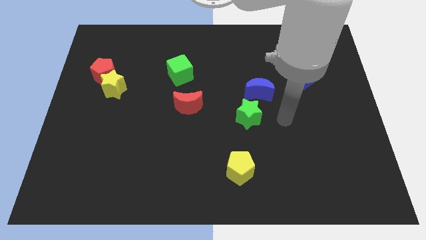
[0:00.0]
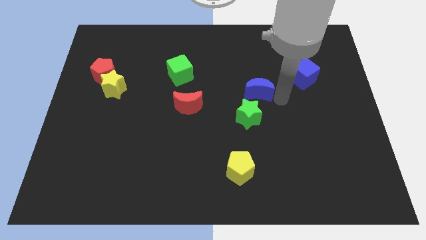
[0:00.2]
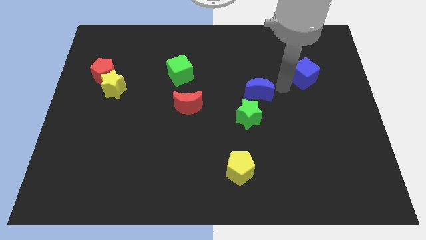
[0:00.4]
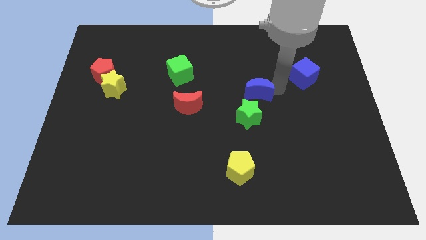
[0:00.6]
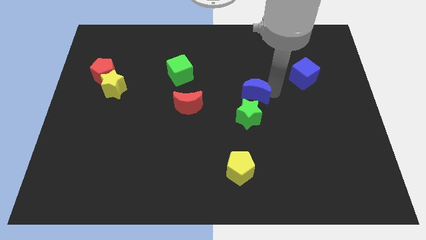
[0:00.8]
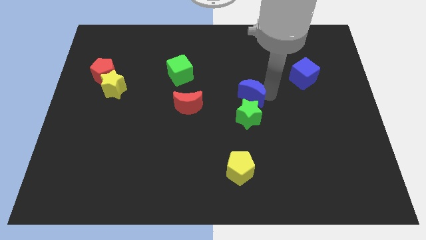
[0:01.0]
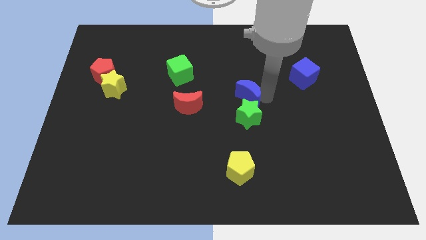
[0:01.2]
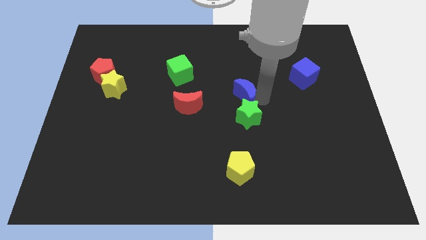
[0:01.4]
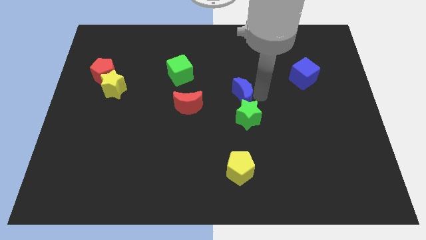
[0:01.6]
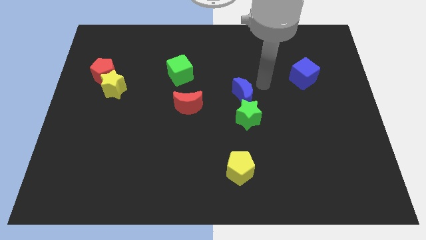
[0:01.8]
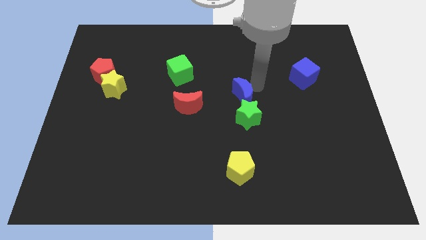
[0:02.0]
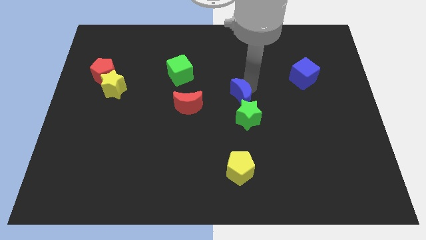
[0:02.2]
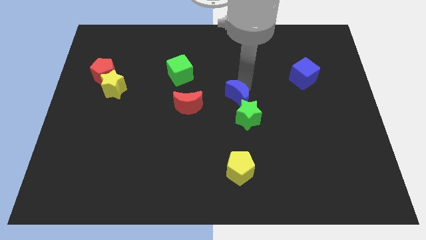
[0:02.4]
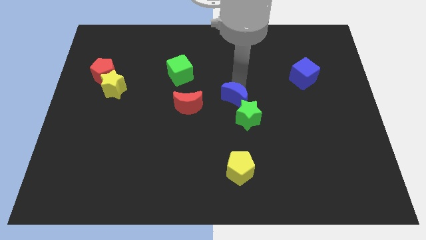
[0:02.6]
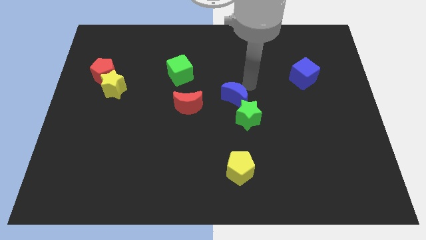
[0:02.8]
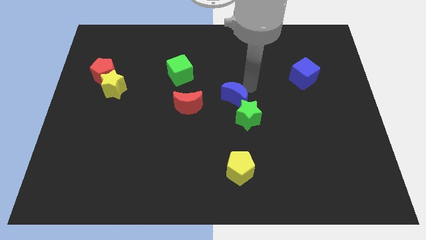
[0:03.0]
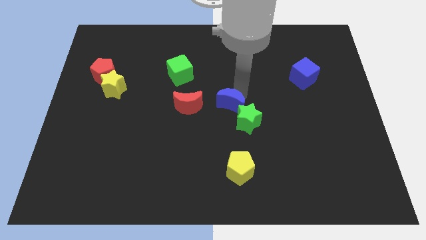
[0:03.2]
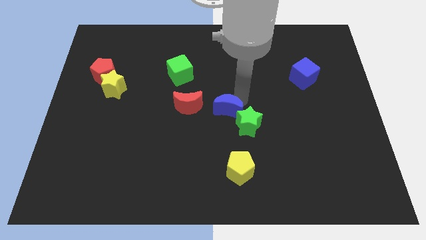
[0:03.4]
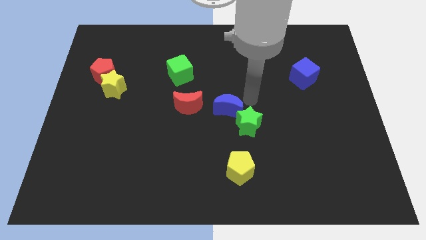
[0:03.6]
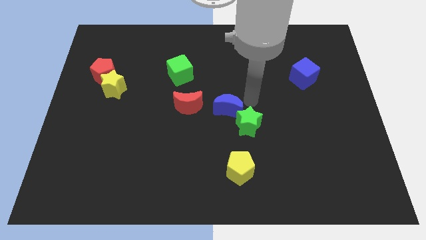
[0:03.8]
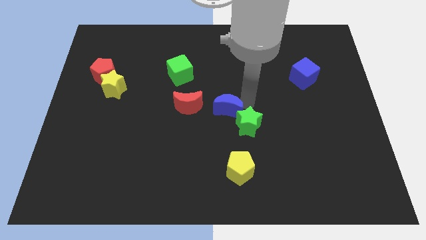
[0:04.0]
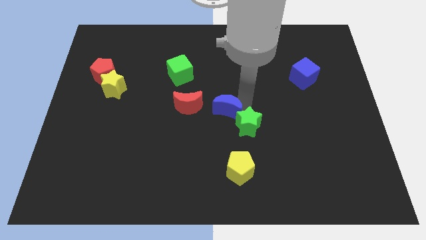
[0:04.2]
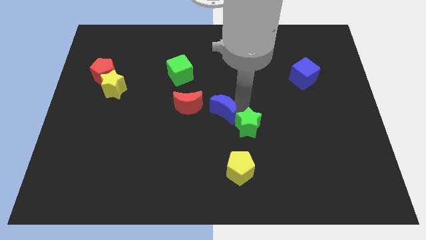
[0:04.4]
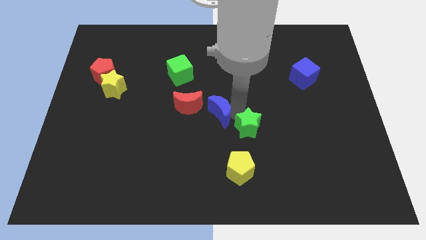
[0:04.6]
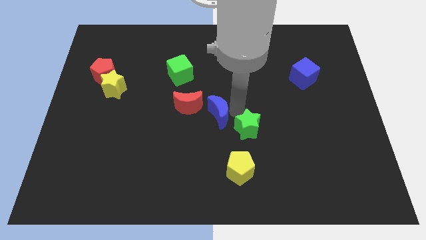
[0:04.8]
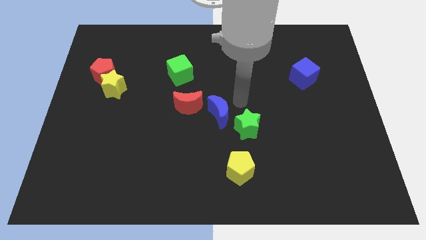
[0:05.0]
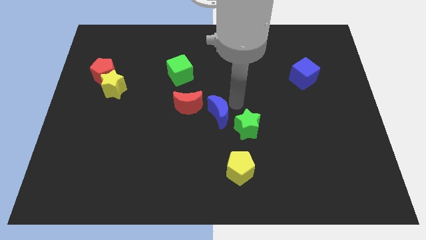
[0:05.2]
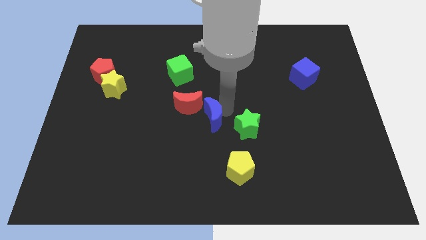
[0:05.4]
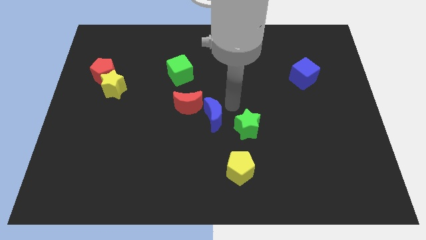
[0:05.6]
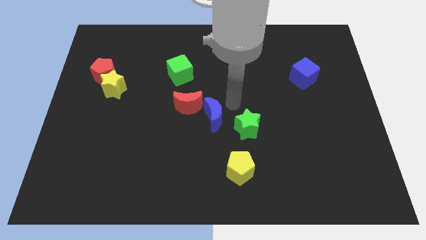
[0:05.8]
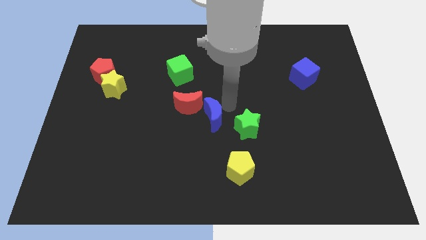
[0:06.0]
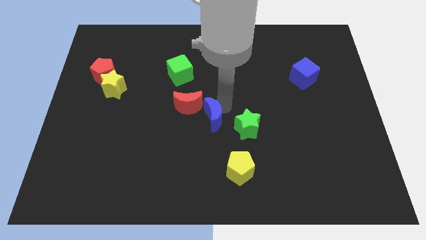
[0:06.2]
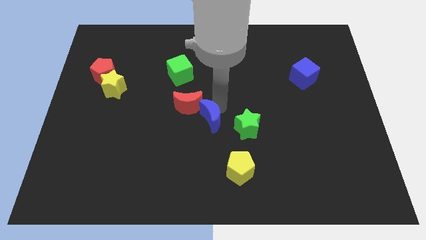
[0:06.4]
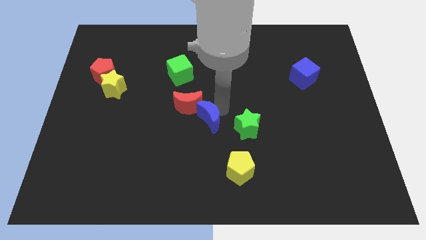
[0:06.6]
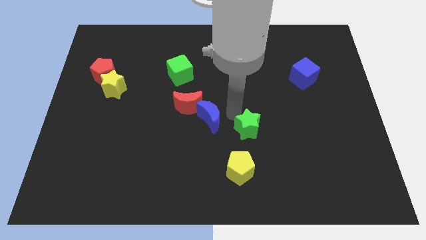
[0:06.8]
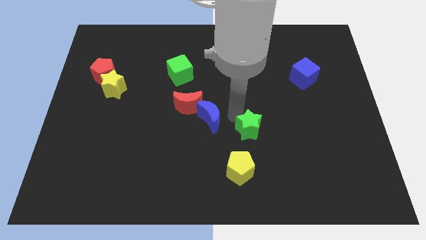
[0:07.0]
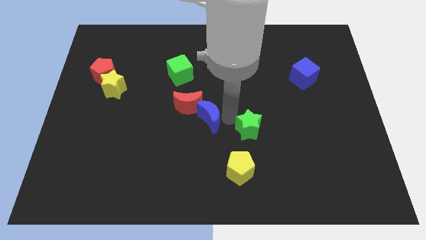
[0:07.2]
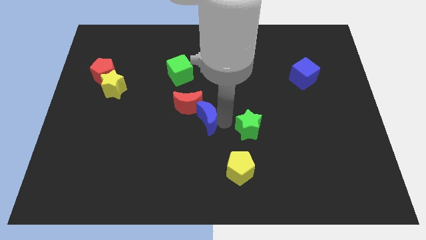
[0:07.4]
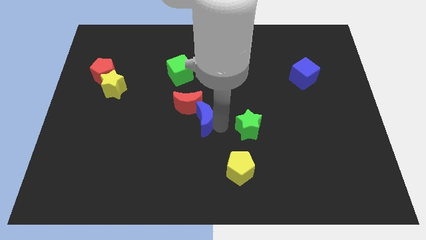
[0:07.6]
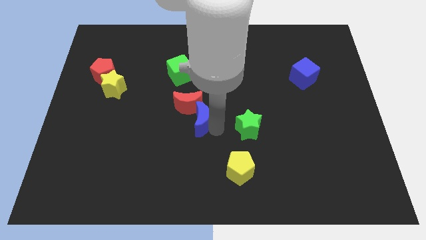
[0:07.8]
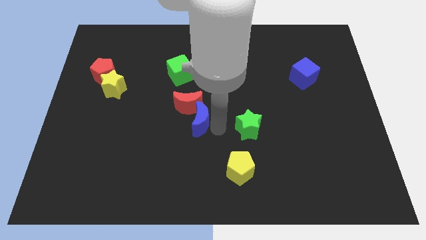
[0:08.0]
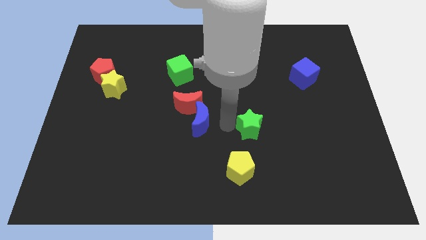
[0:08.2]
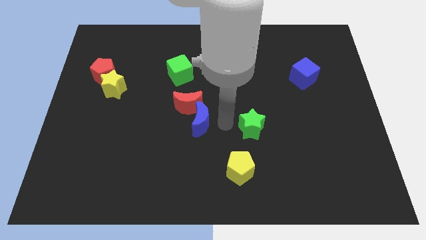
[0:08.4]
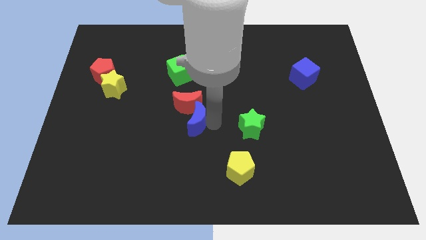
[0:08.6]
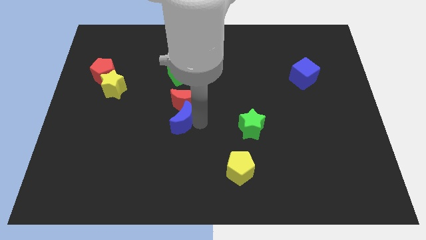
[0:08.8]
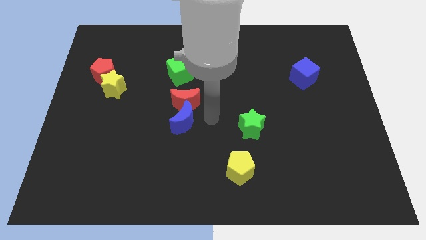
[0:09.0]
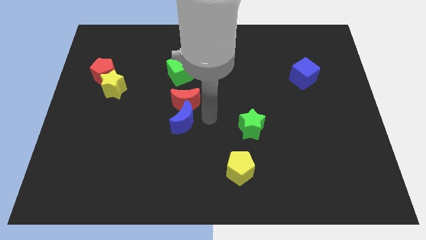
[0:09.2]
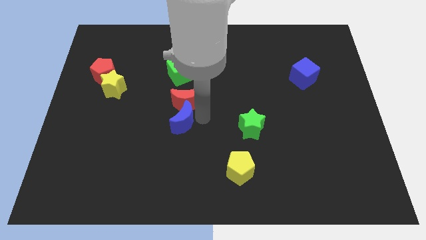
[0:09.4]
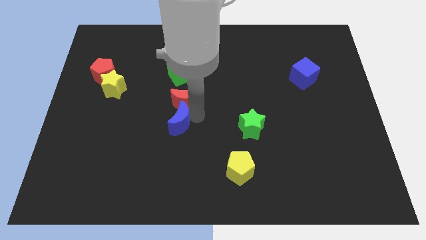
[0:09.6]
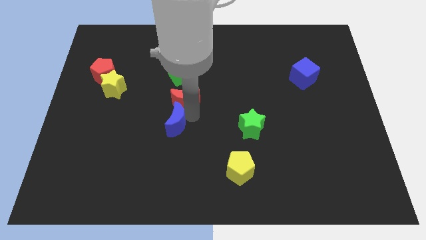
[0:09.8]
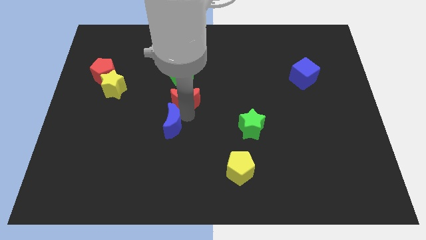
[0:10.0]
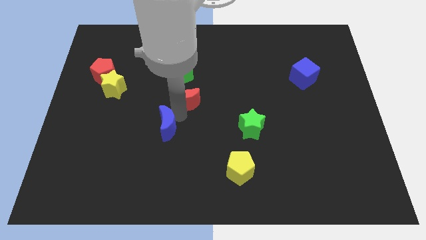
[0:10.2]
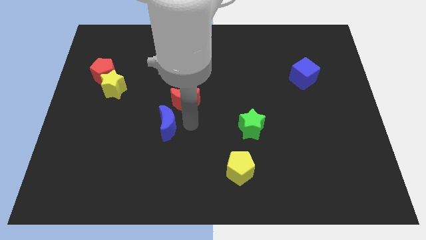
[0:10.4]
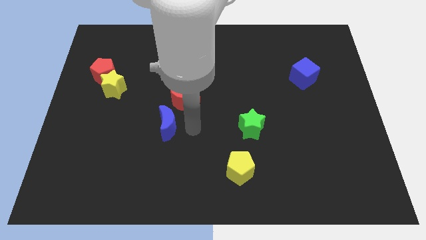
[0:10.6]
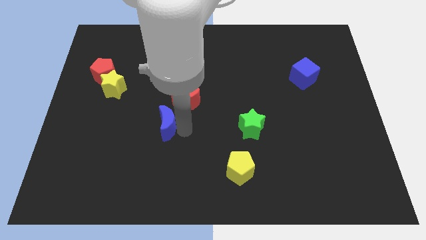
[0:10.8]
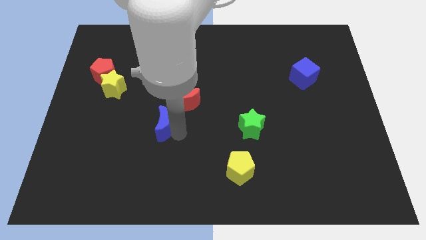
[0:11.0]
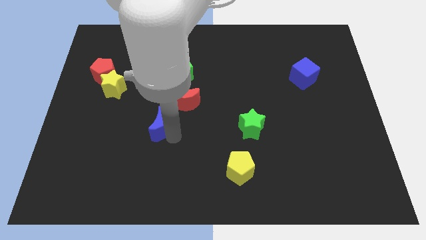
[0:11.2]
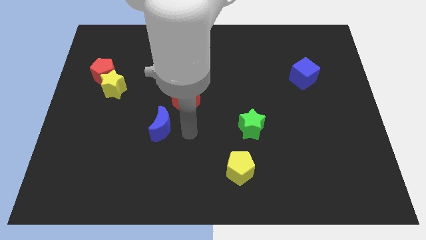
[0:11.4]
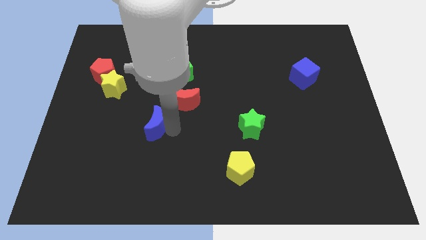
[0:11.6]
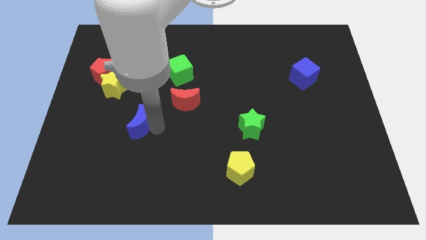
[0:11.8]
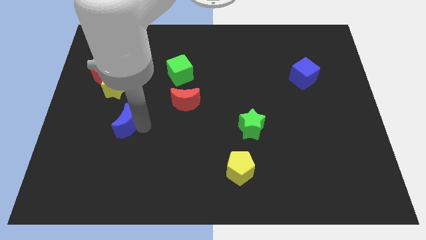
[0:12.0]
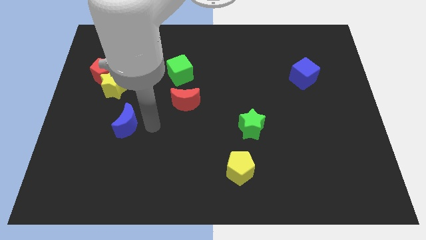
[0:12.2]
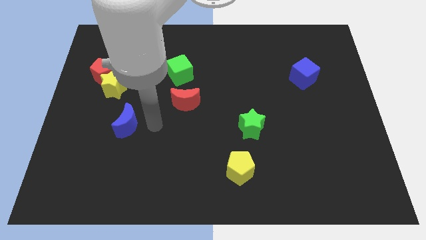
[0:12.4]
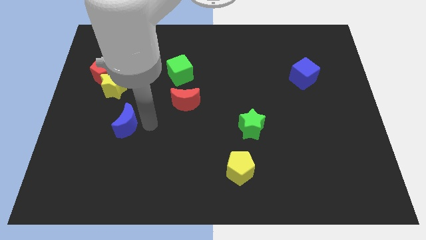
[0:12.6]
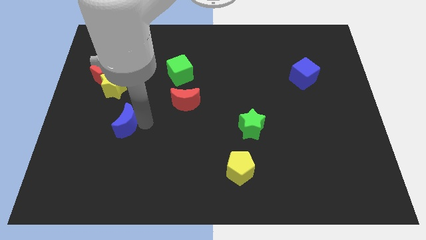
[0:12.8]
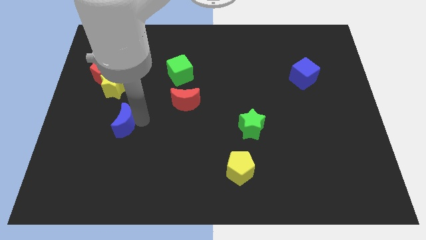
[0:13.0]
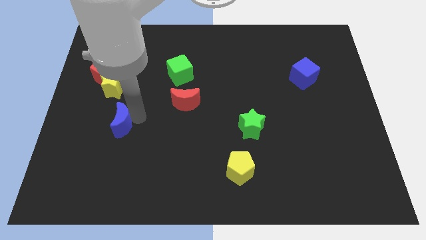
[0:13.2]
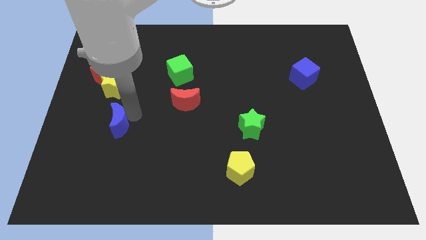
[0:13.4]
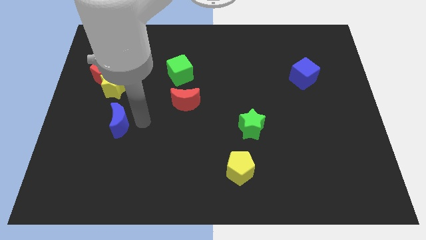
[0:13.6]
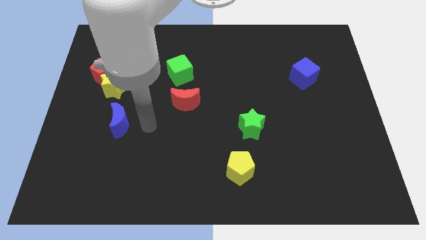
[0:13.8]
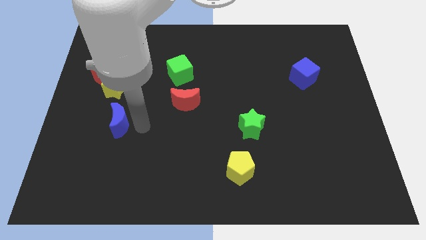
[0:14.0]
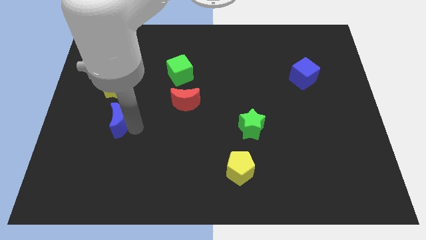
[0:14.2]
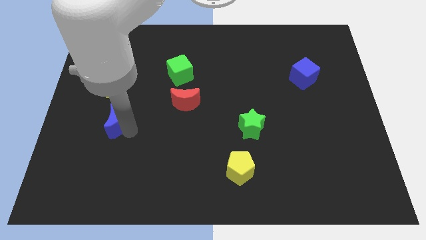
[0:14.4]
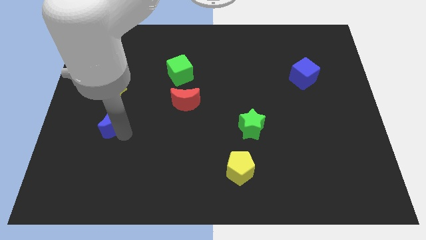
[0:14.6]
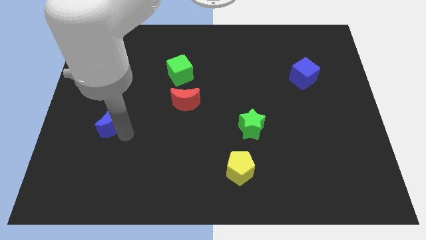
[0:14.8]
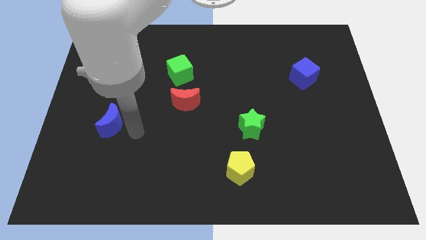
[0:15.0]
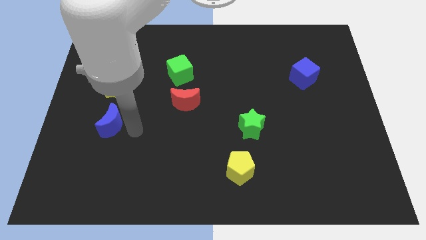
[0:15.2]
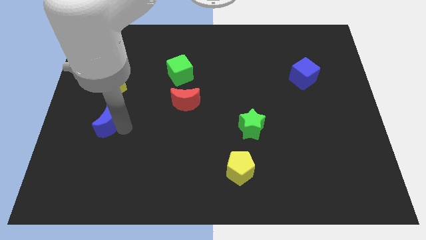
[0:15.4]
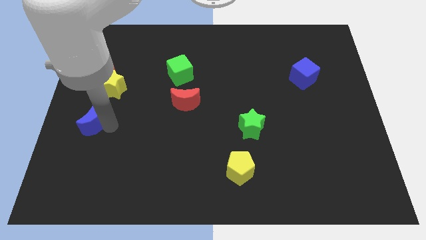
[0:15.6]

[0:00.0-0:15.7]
put the blue moon to the left side of the board
